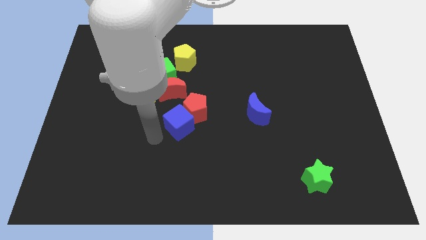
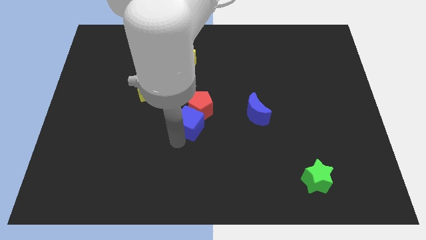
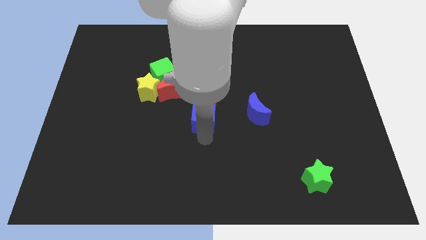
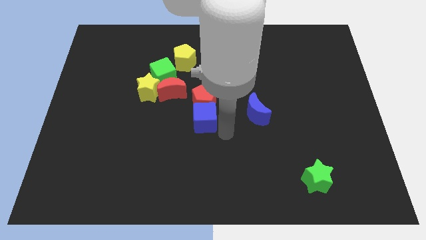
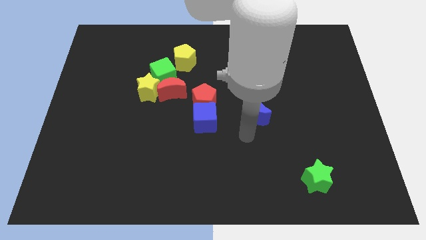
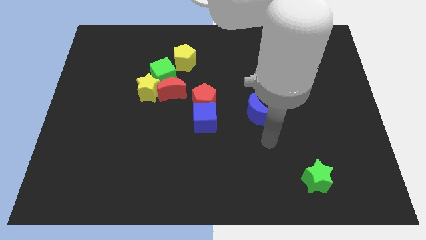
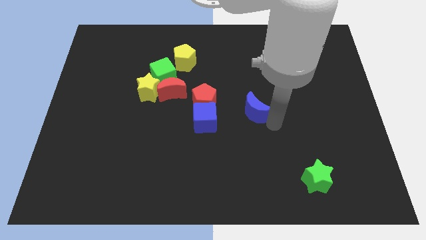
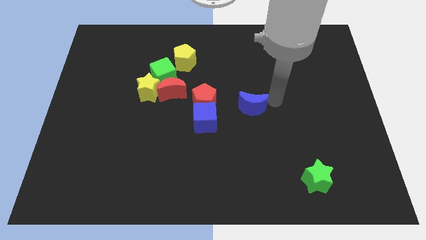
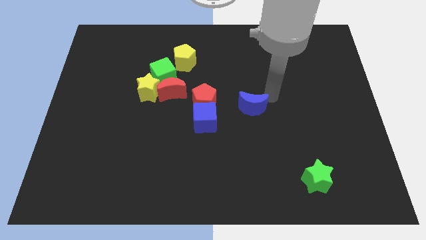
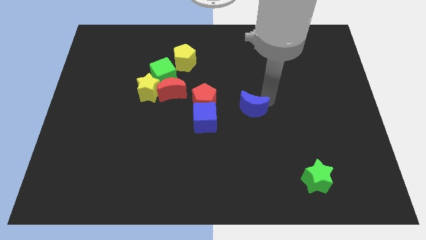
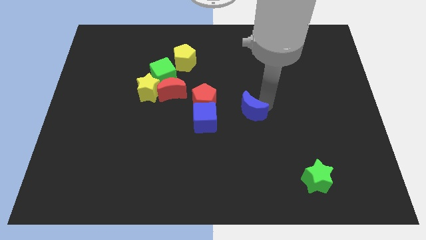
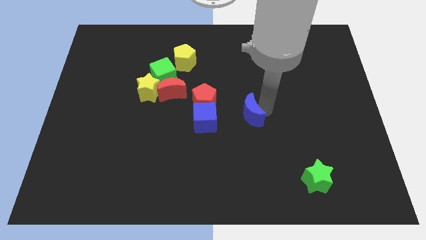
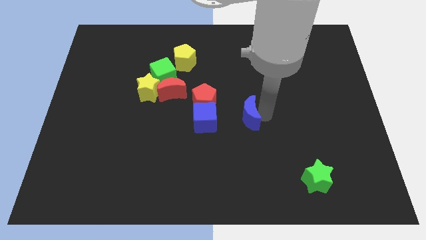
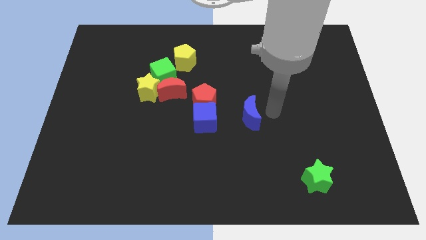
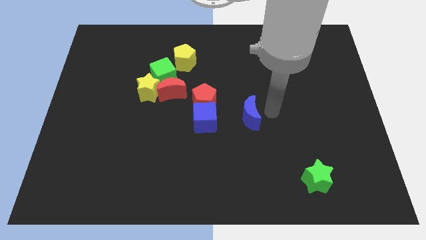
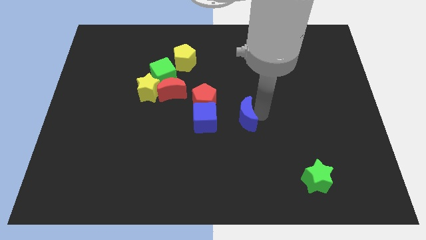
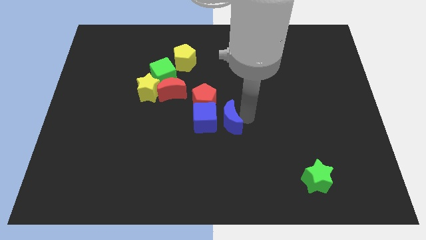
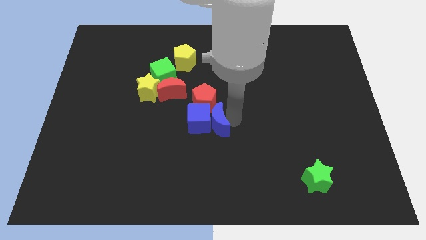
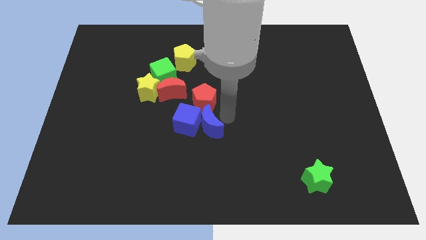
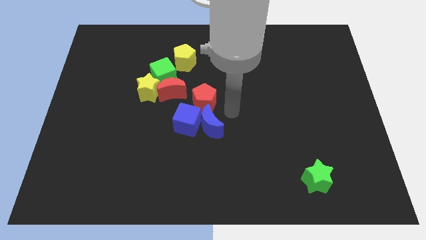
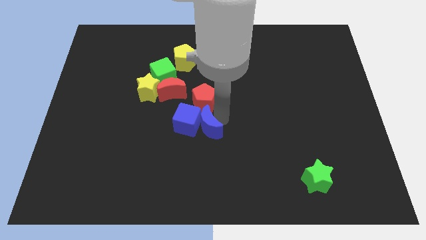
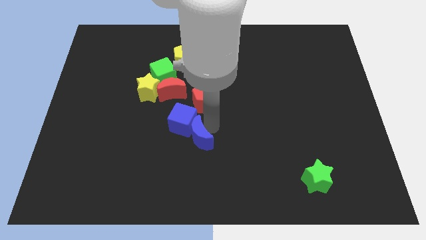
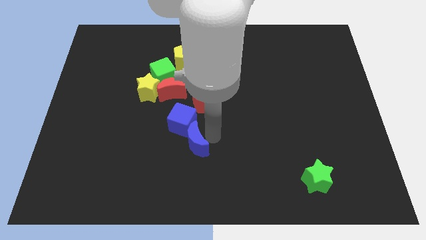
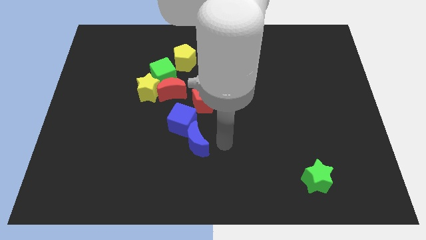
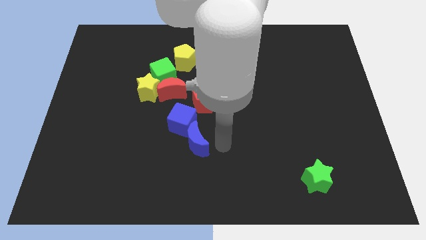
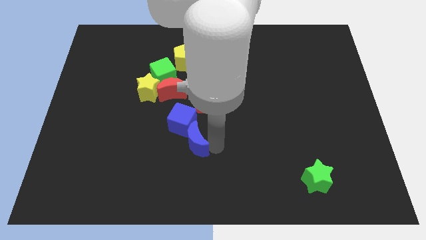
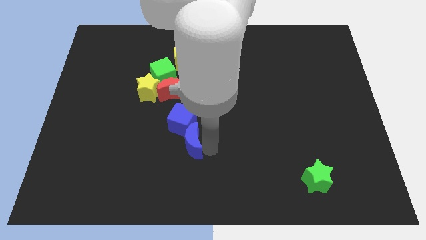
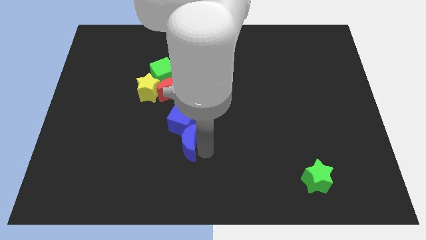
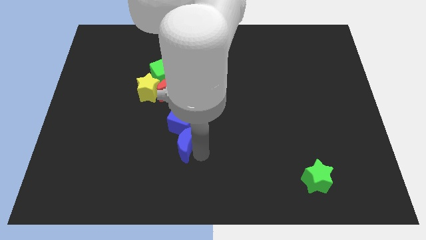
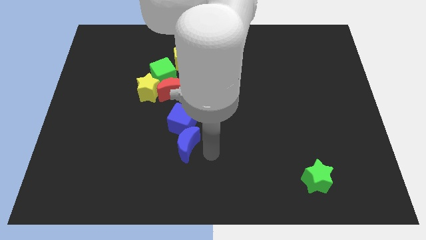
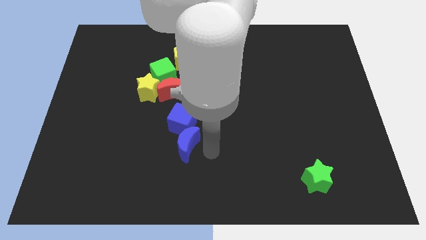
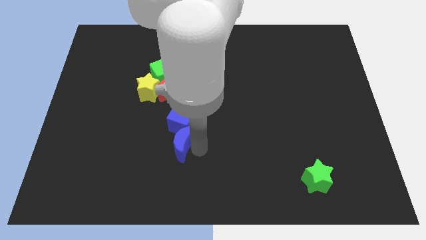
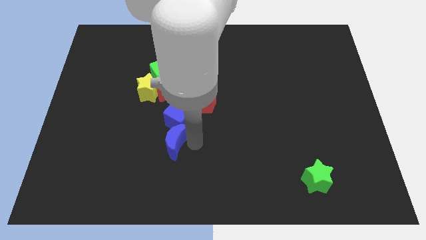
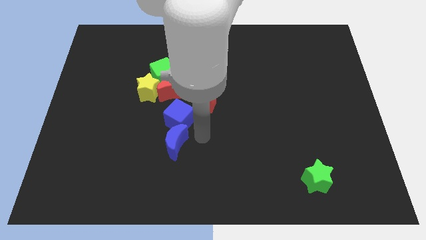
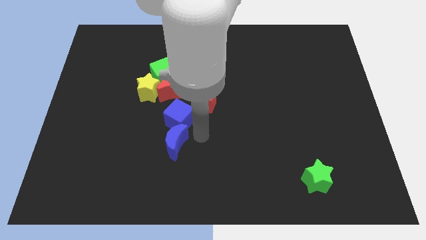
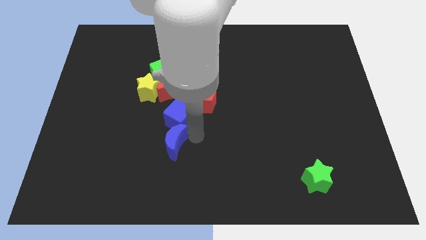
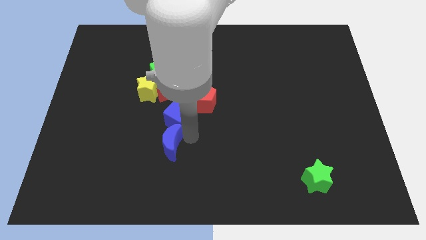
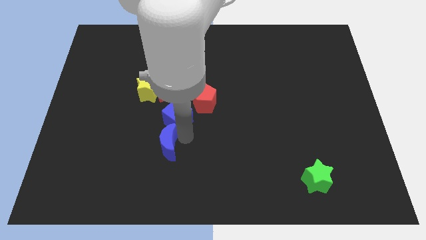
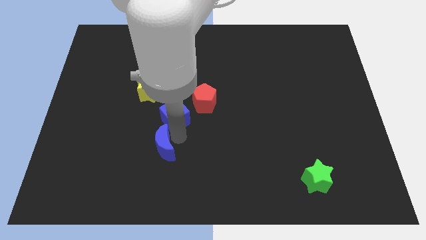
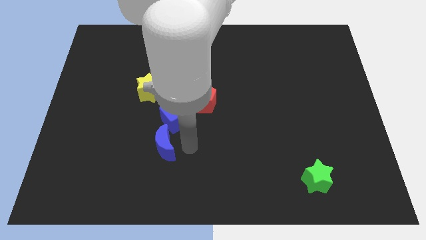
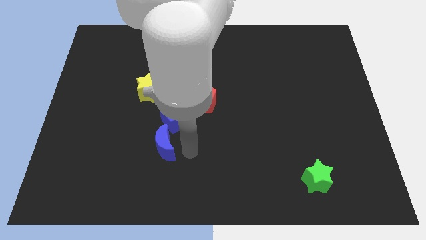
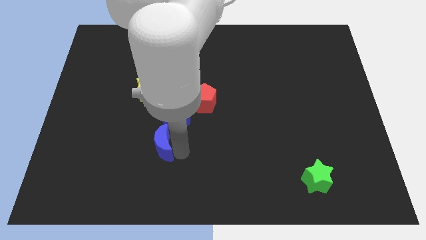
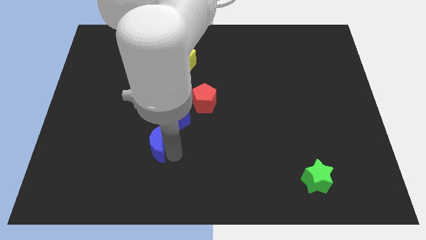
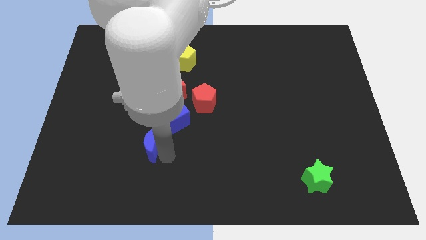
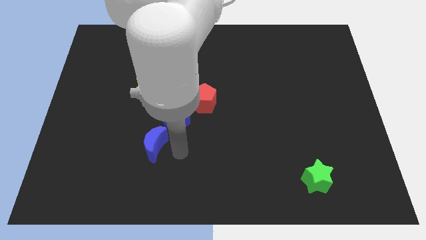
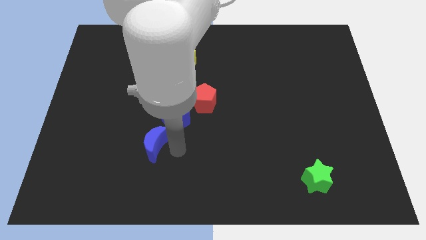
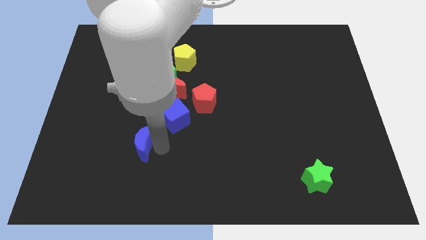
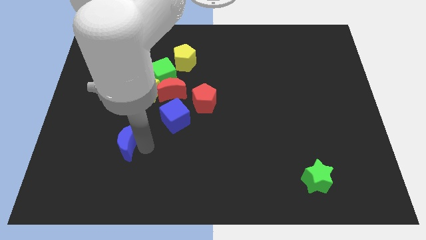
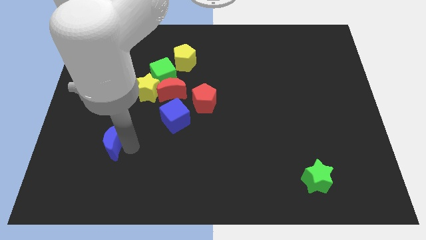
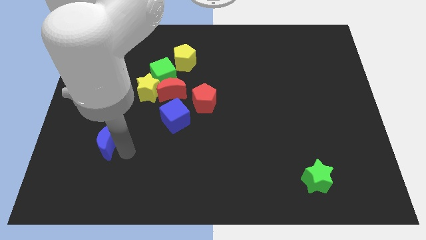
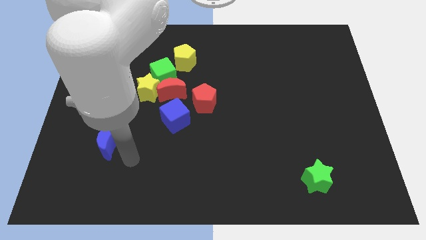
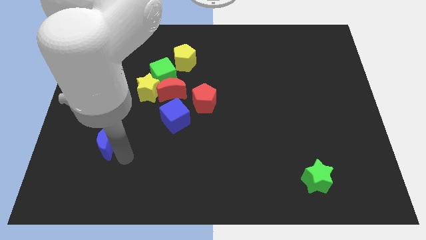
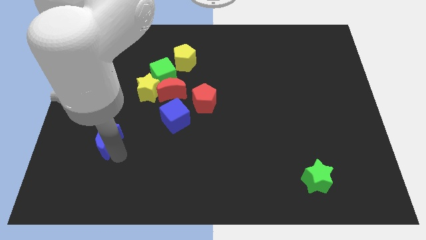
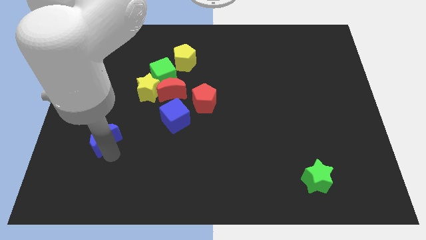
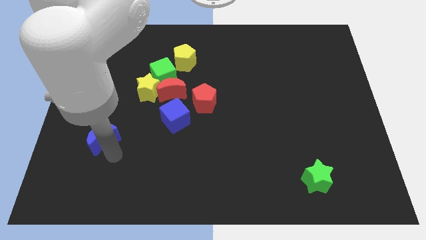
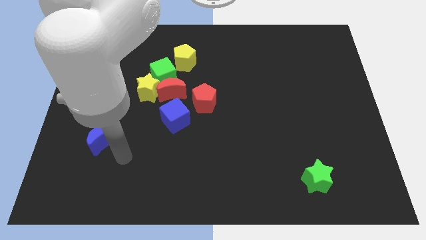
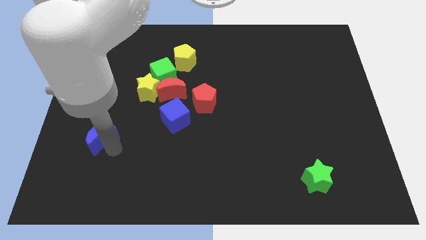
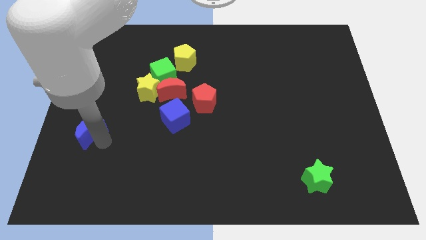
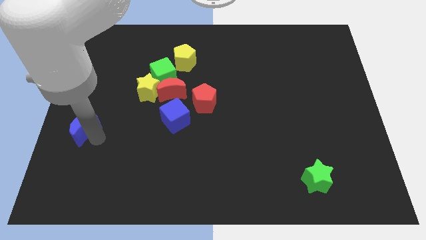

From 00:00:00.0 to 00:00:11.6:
move the blue moon to the left side of the board

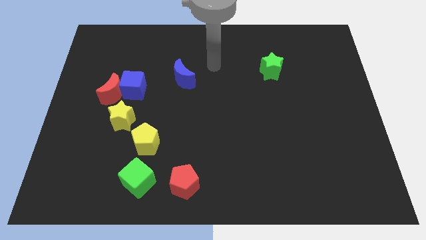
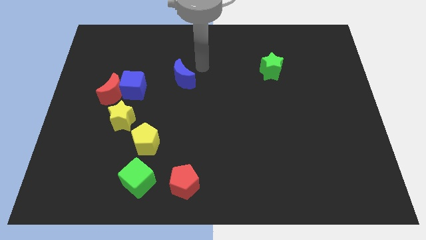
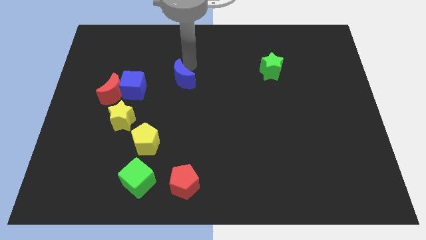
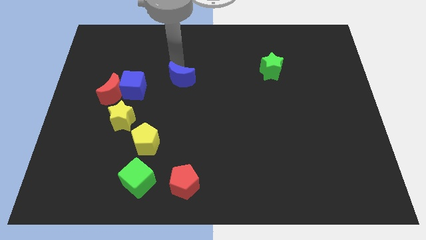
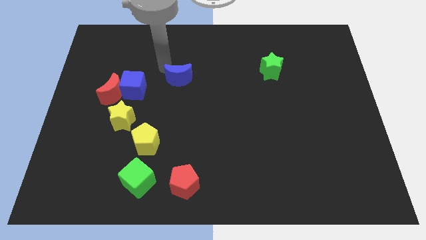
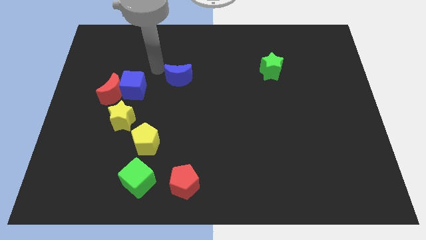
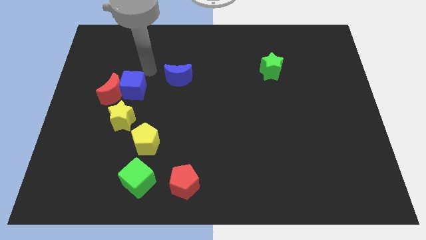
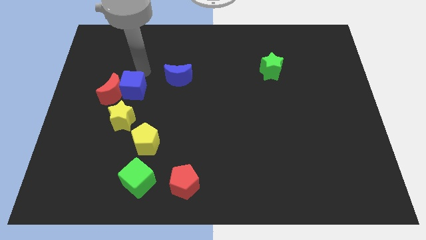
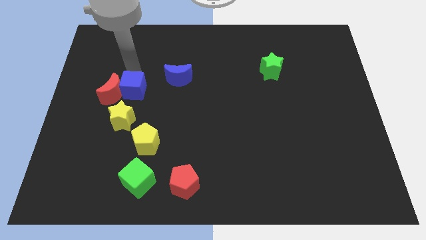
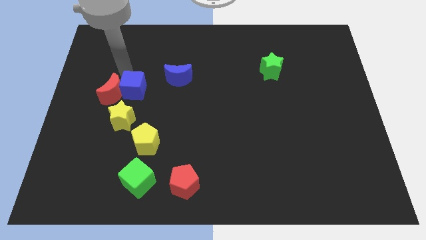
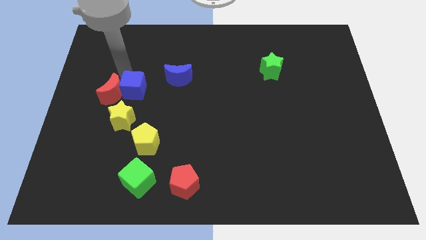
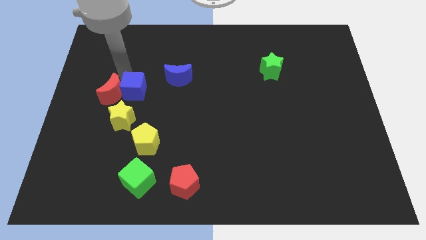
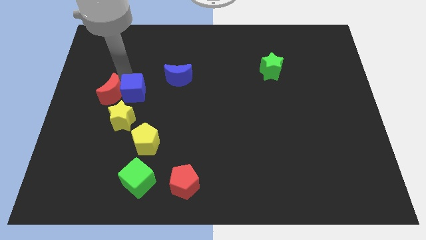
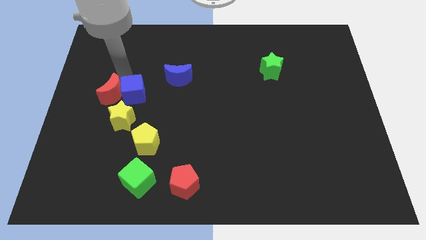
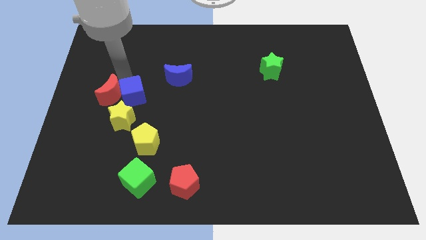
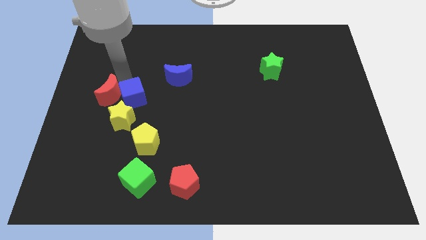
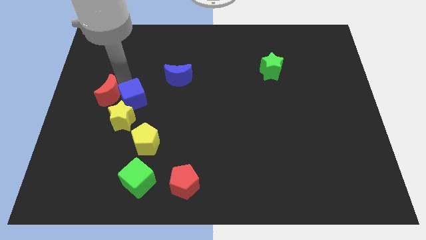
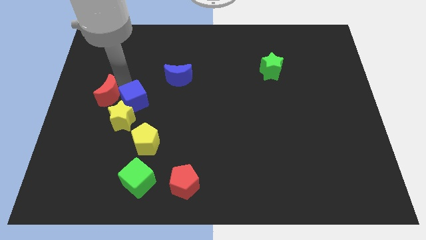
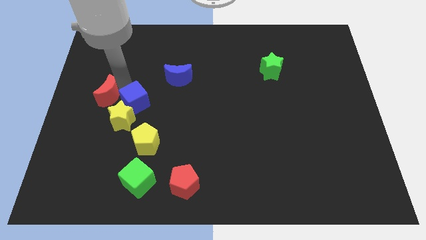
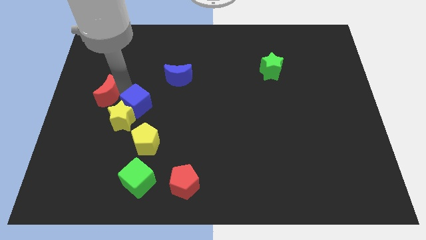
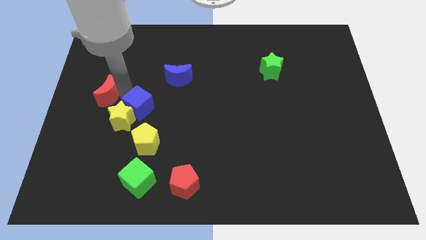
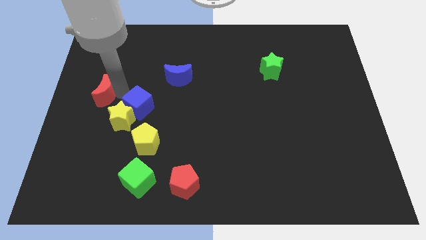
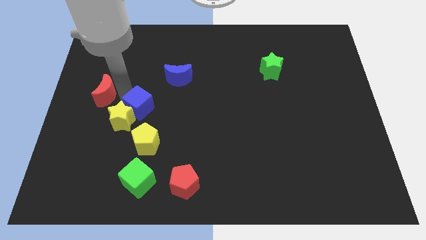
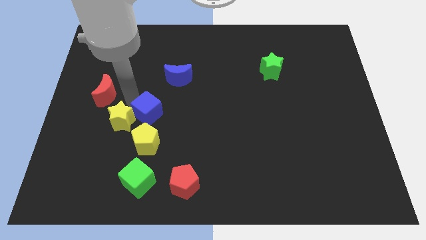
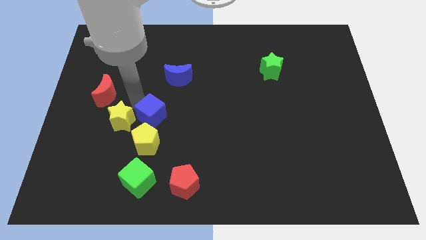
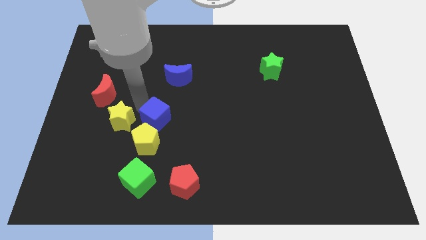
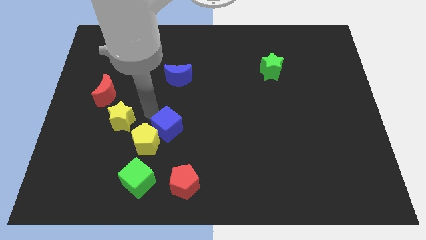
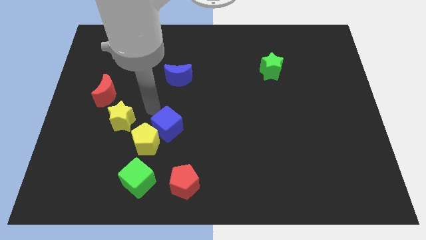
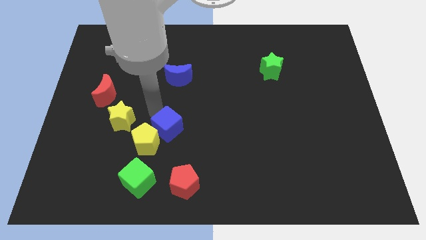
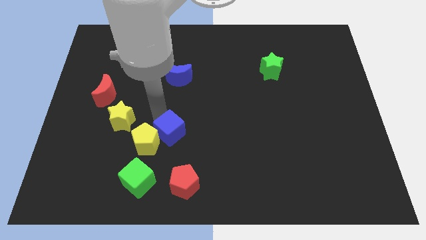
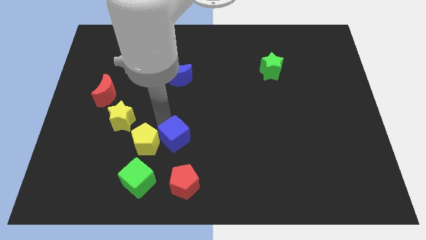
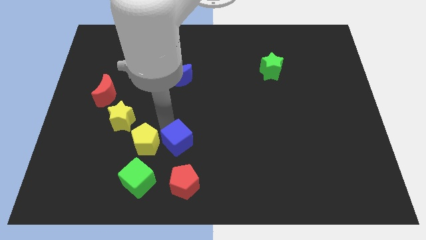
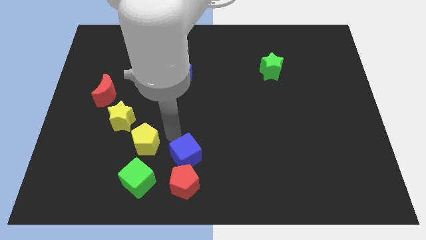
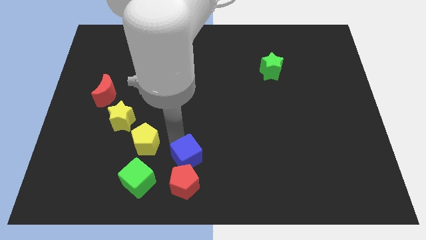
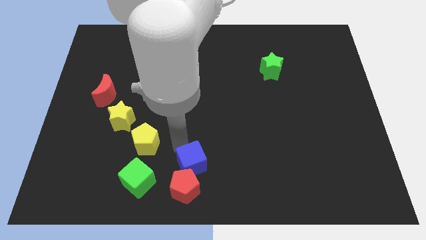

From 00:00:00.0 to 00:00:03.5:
put the blue cube to the bottom
